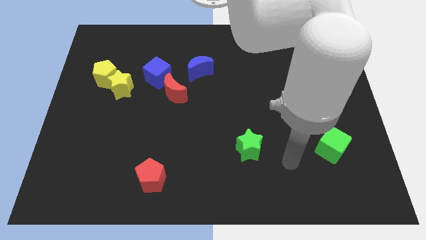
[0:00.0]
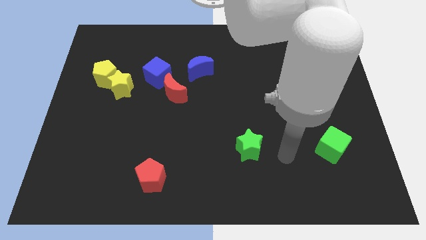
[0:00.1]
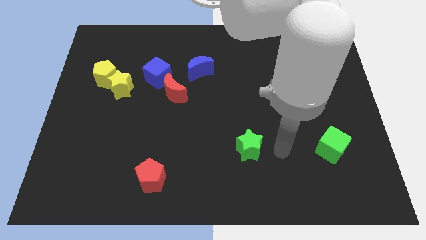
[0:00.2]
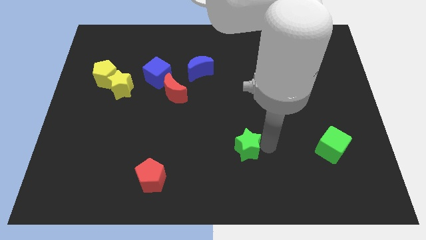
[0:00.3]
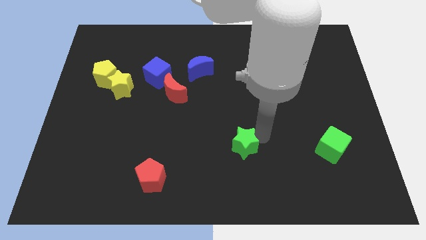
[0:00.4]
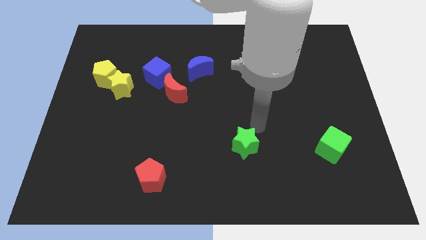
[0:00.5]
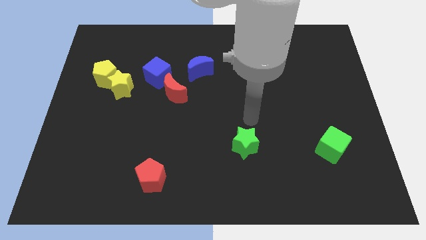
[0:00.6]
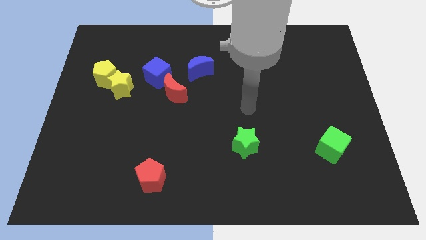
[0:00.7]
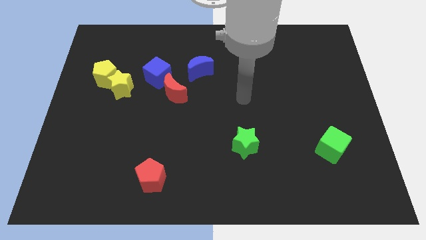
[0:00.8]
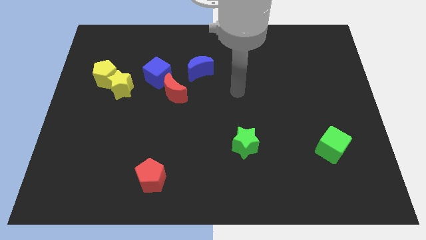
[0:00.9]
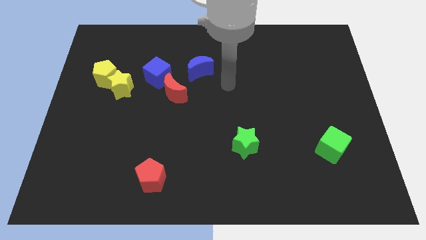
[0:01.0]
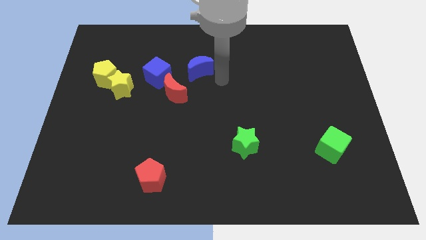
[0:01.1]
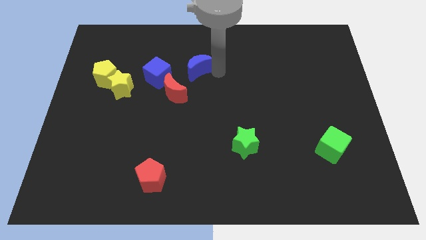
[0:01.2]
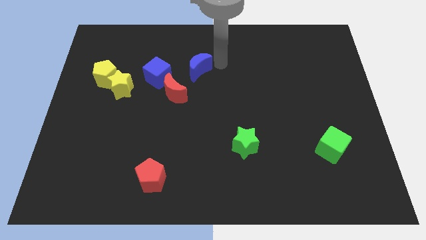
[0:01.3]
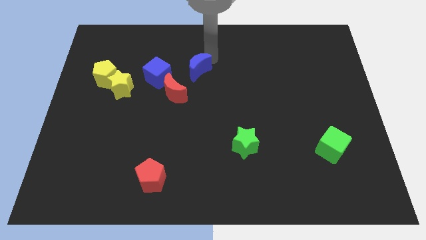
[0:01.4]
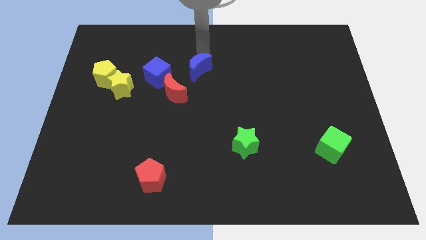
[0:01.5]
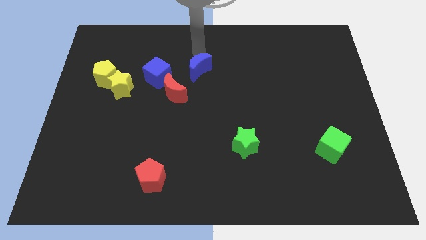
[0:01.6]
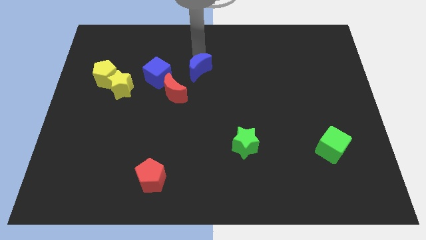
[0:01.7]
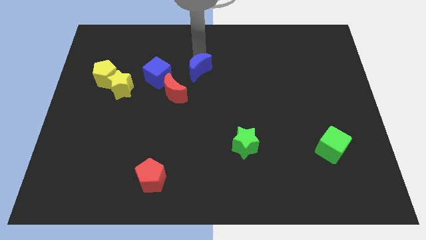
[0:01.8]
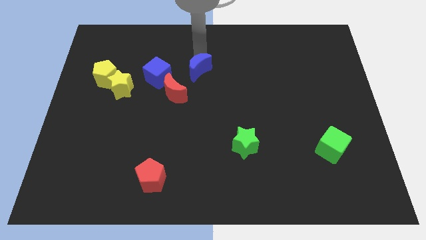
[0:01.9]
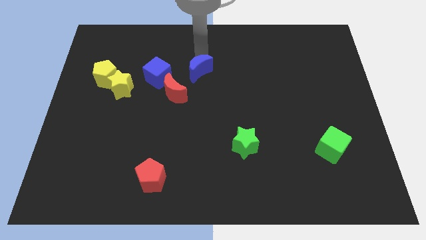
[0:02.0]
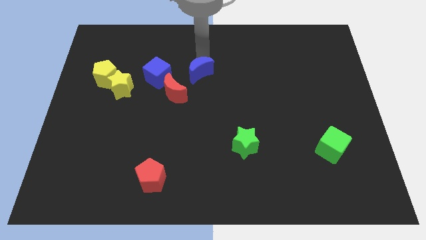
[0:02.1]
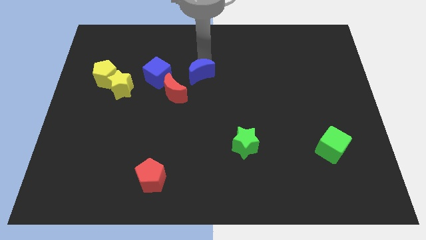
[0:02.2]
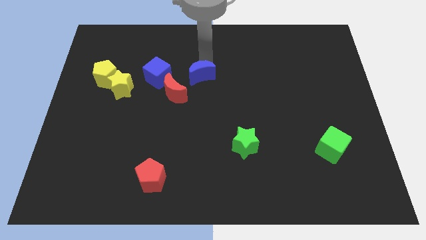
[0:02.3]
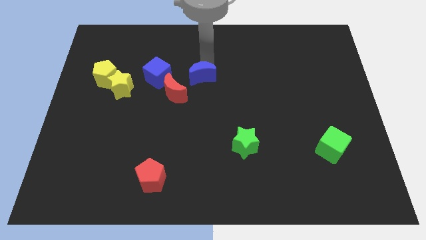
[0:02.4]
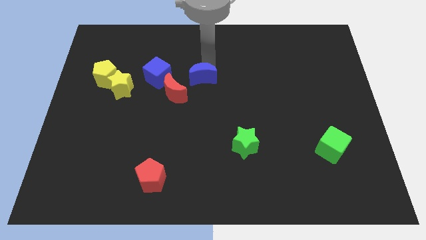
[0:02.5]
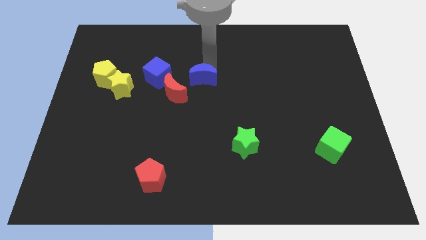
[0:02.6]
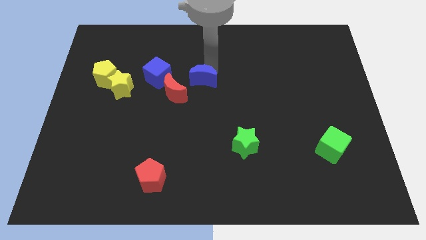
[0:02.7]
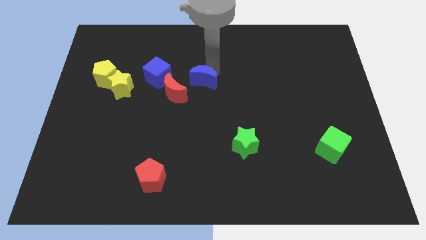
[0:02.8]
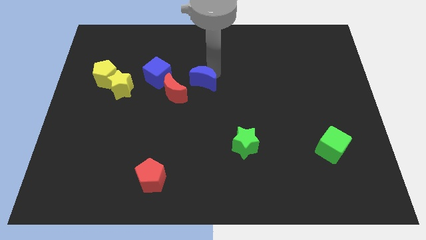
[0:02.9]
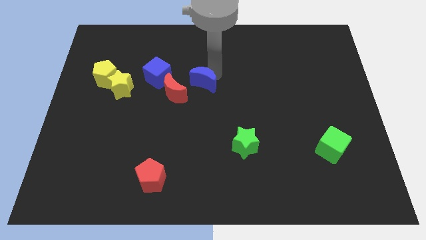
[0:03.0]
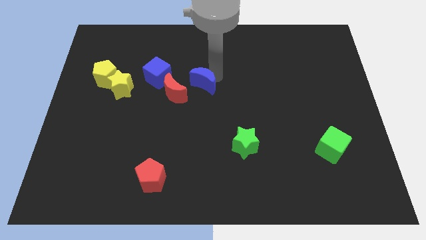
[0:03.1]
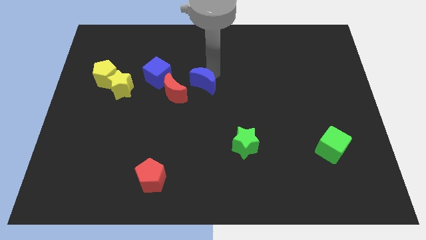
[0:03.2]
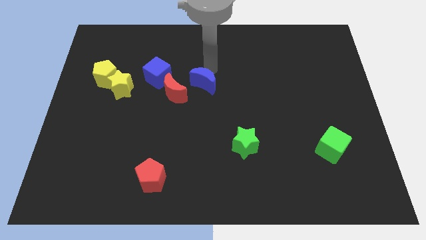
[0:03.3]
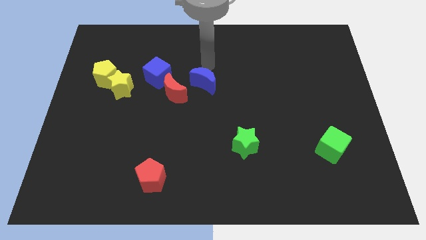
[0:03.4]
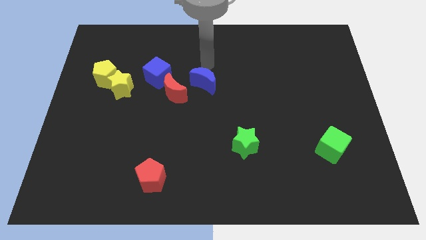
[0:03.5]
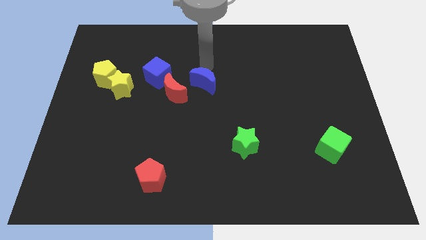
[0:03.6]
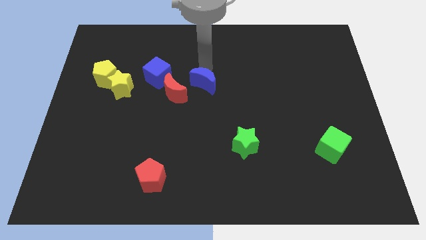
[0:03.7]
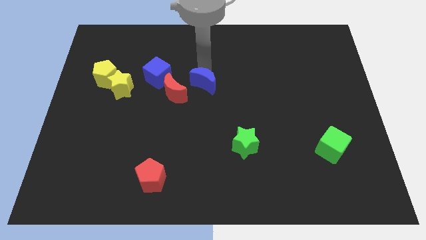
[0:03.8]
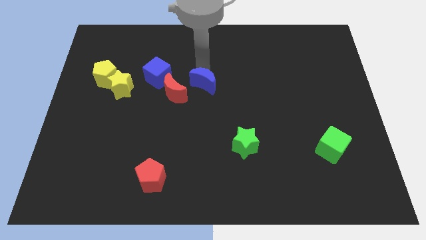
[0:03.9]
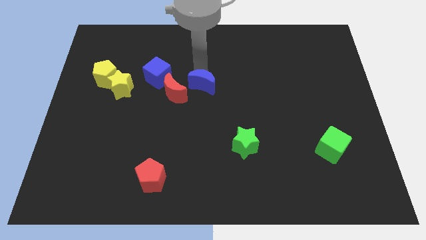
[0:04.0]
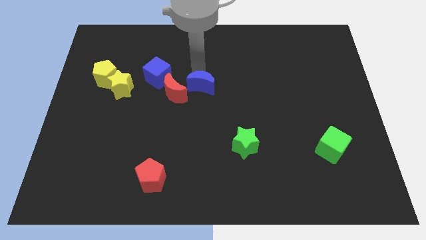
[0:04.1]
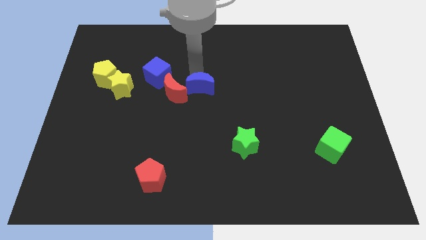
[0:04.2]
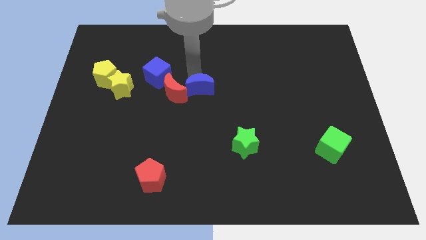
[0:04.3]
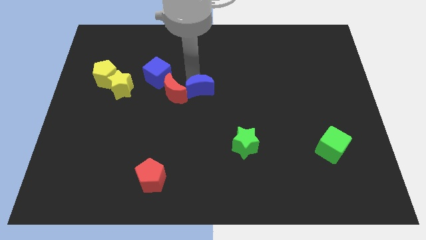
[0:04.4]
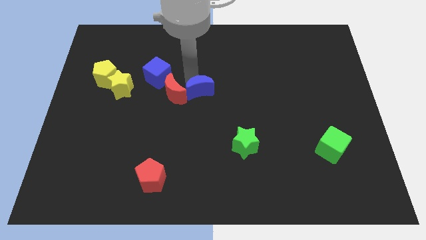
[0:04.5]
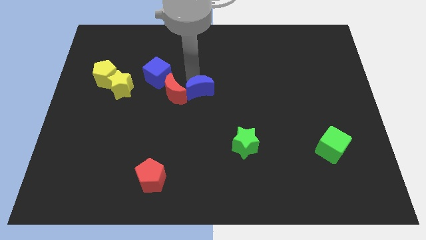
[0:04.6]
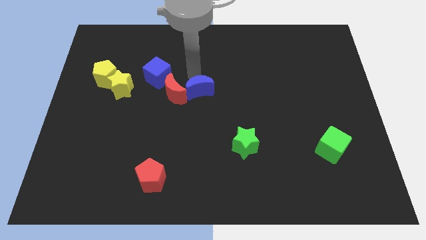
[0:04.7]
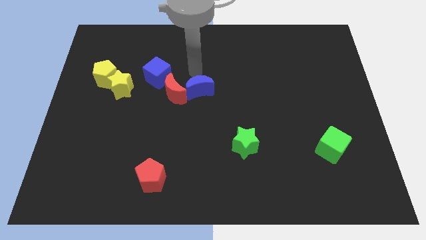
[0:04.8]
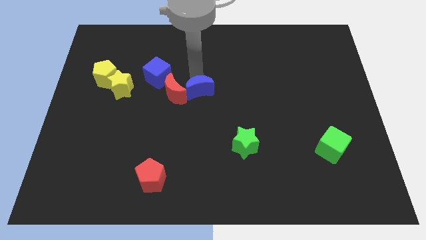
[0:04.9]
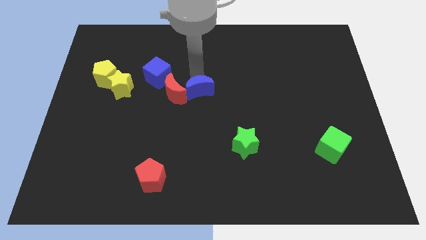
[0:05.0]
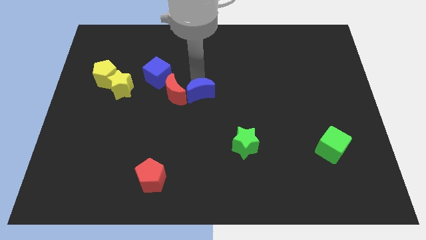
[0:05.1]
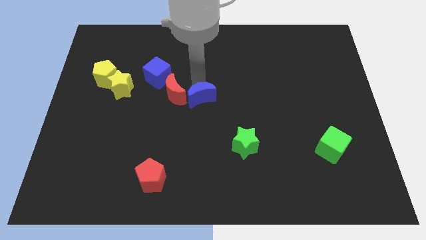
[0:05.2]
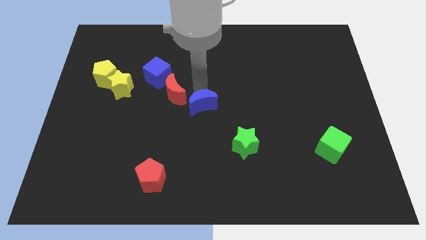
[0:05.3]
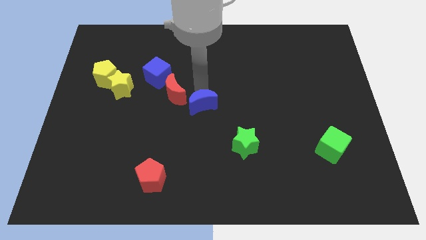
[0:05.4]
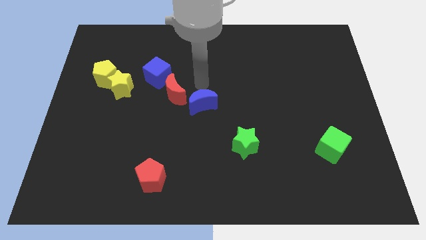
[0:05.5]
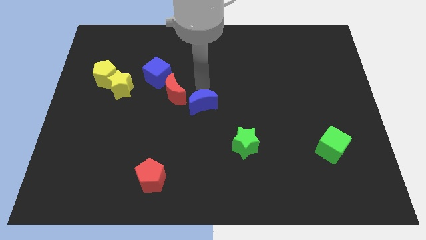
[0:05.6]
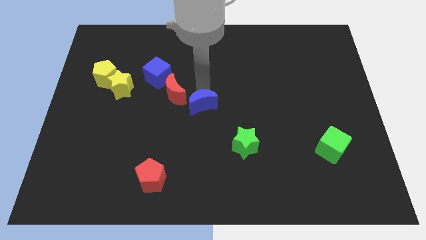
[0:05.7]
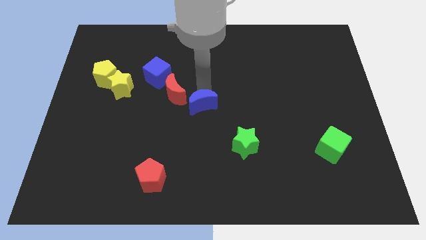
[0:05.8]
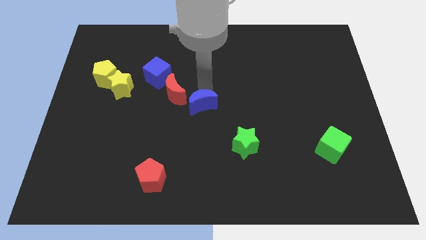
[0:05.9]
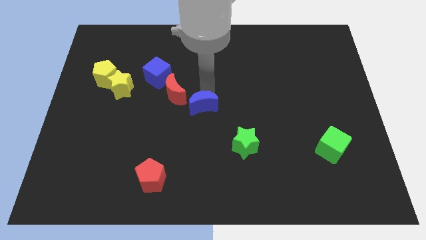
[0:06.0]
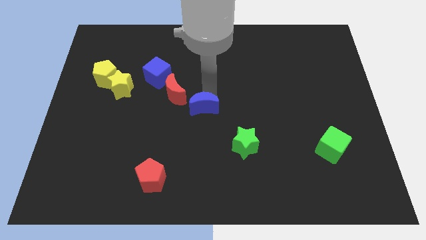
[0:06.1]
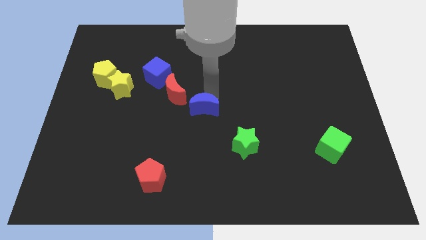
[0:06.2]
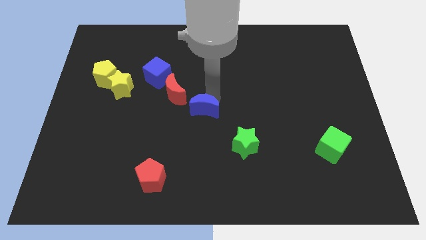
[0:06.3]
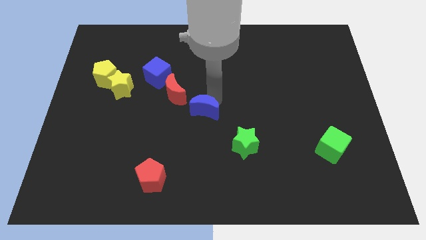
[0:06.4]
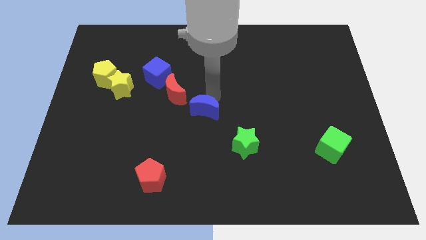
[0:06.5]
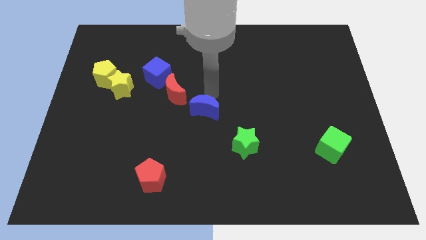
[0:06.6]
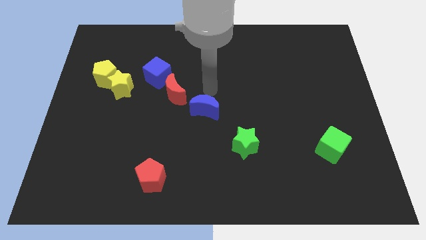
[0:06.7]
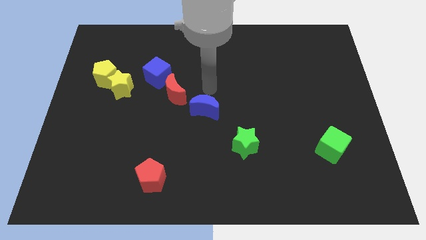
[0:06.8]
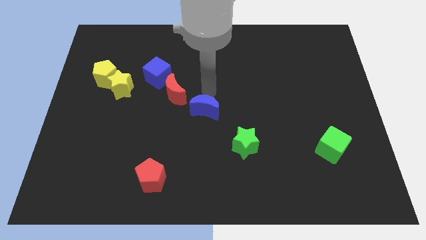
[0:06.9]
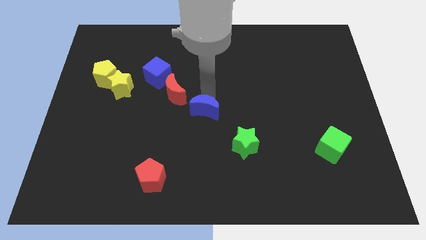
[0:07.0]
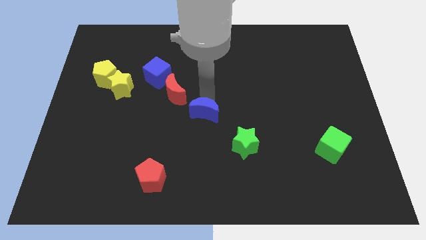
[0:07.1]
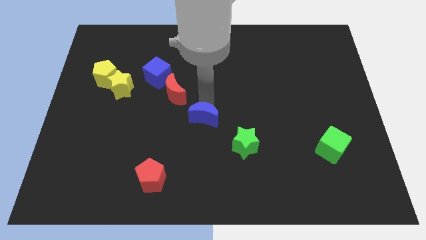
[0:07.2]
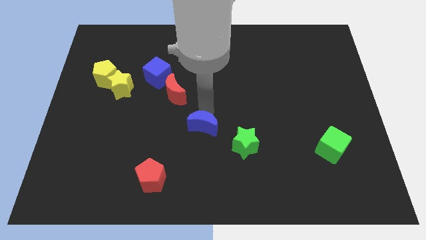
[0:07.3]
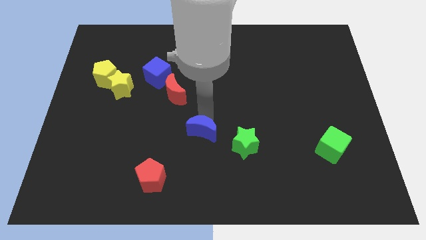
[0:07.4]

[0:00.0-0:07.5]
move the blue moon to the left of the green star
